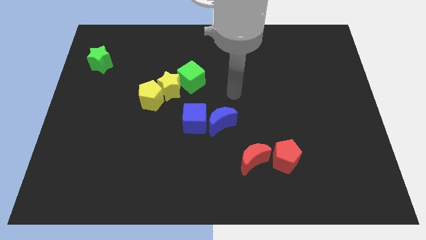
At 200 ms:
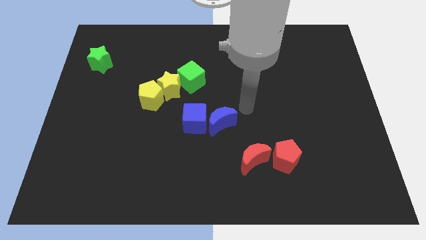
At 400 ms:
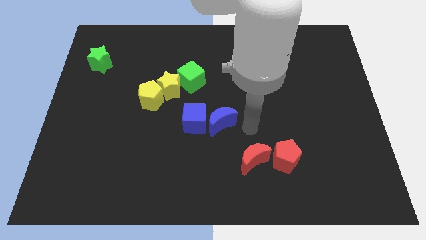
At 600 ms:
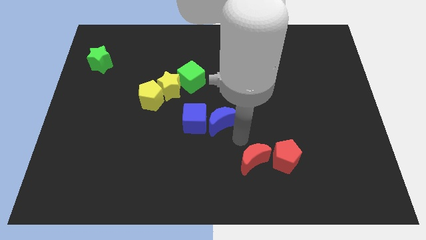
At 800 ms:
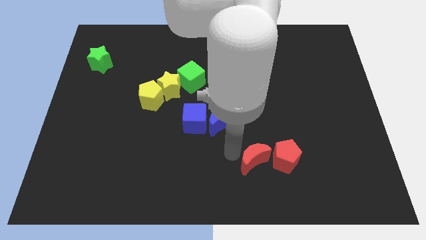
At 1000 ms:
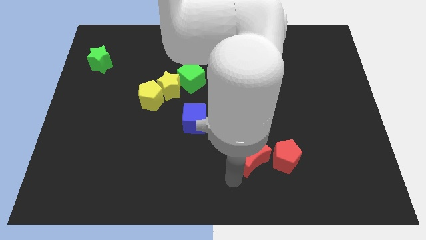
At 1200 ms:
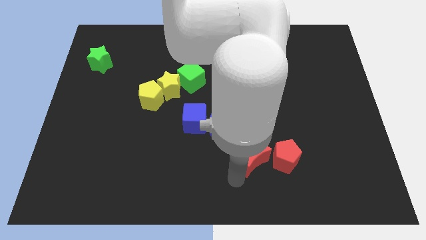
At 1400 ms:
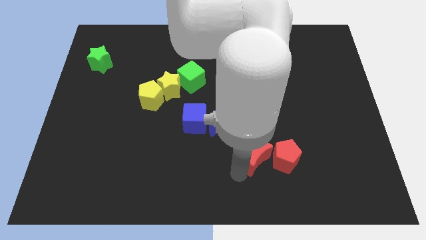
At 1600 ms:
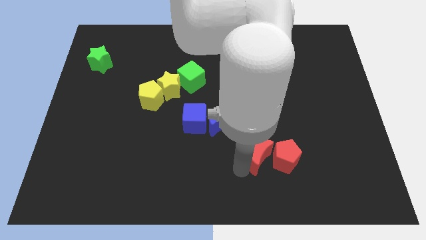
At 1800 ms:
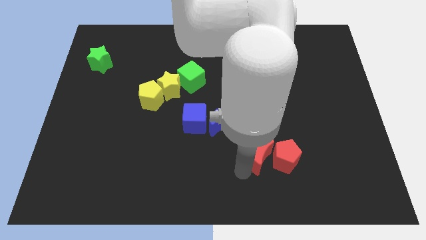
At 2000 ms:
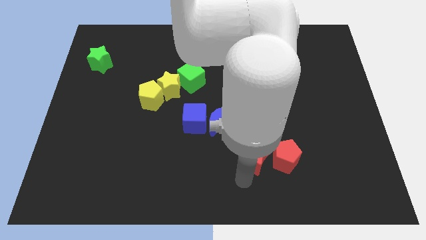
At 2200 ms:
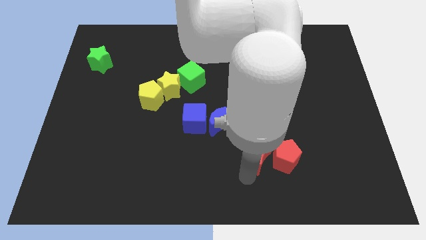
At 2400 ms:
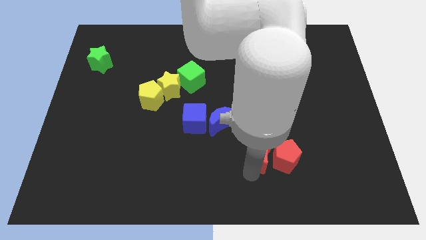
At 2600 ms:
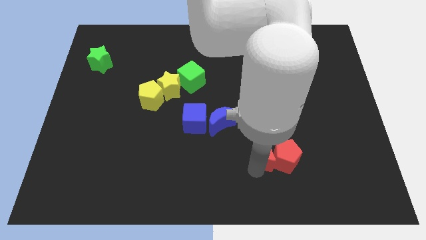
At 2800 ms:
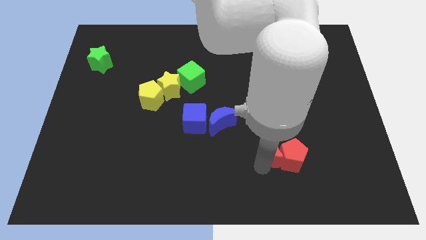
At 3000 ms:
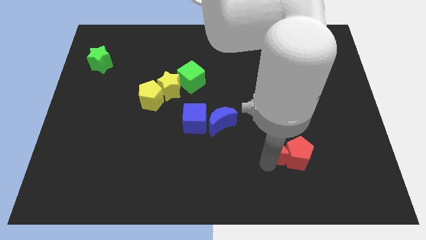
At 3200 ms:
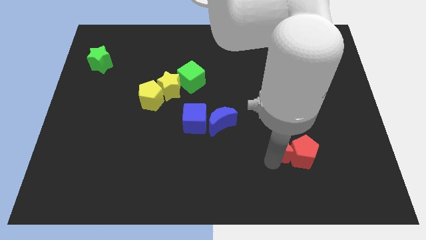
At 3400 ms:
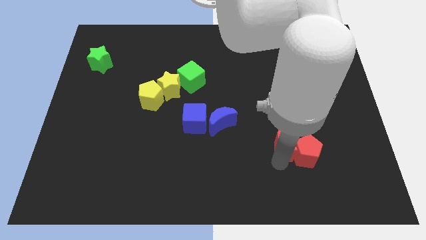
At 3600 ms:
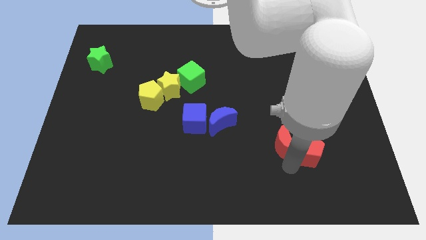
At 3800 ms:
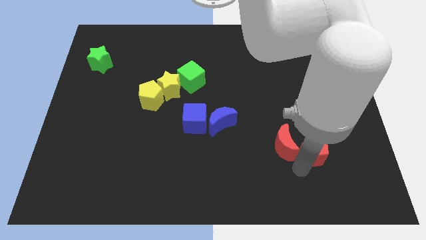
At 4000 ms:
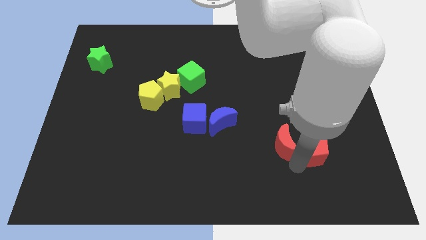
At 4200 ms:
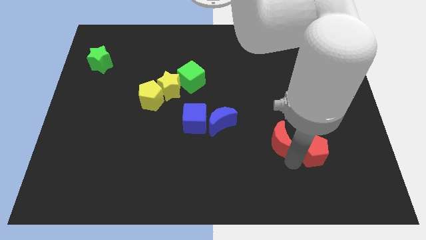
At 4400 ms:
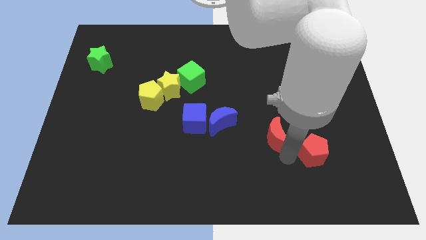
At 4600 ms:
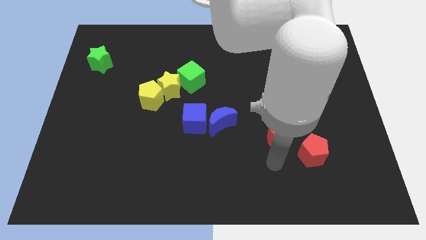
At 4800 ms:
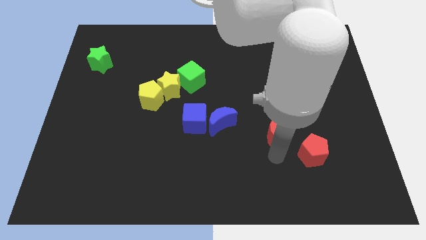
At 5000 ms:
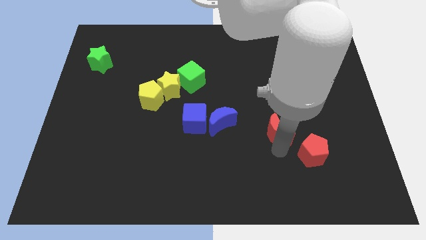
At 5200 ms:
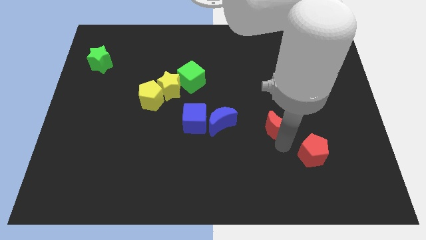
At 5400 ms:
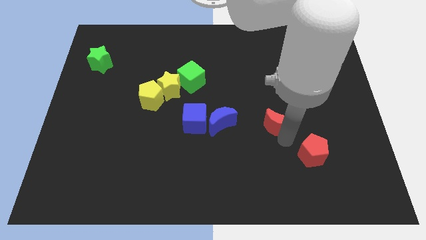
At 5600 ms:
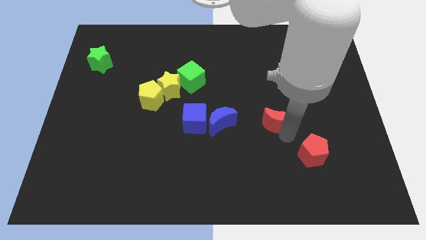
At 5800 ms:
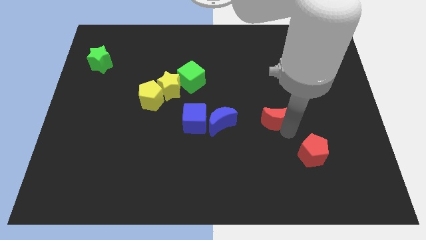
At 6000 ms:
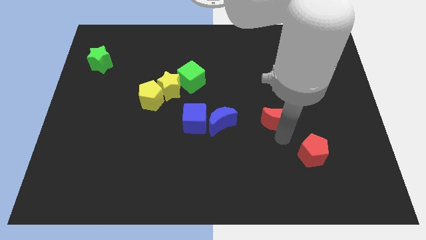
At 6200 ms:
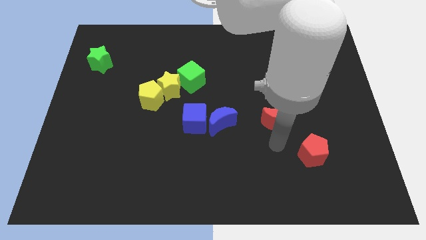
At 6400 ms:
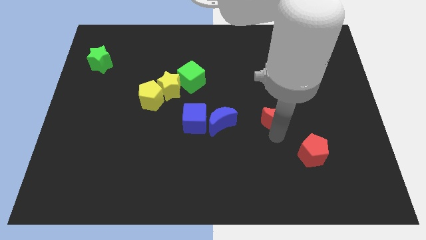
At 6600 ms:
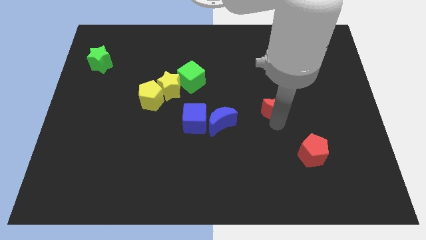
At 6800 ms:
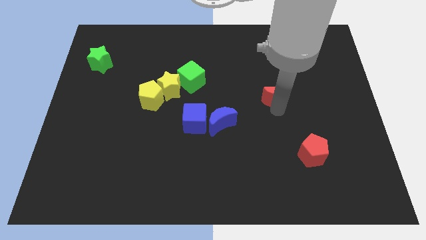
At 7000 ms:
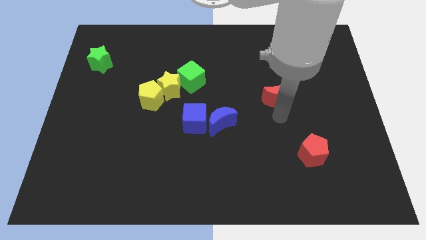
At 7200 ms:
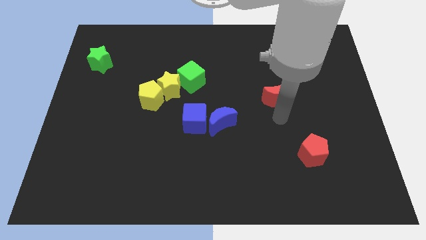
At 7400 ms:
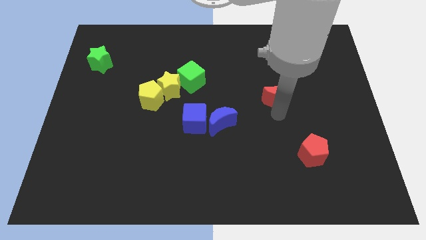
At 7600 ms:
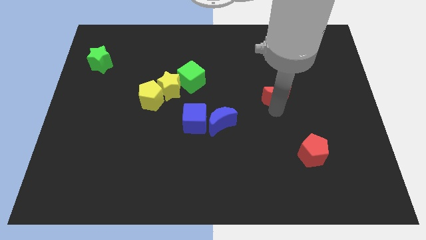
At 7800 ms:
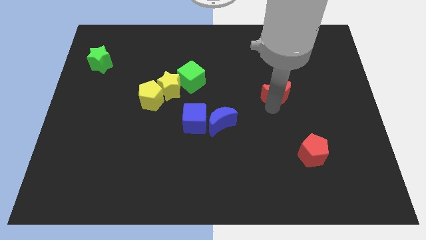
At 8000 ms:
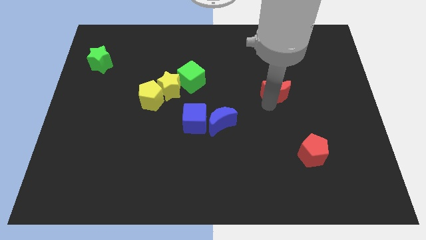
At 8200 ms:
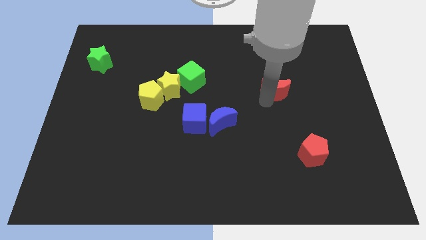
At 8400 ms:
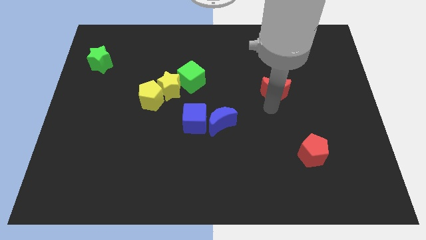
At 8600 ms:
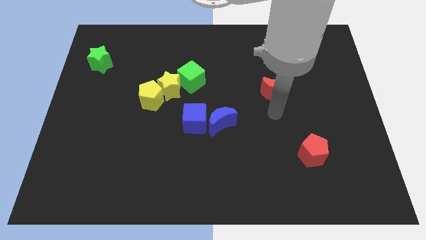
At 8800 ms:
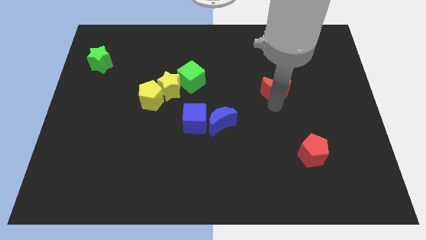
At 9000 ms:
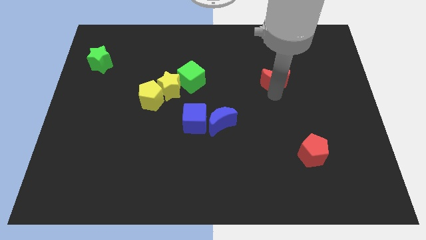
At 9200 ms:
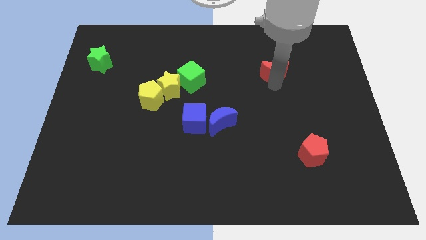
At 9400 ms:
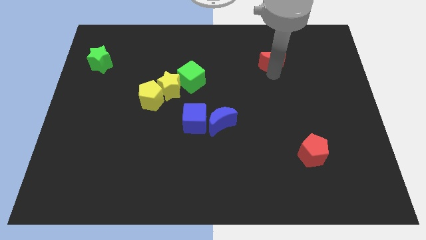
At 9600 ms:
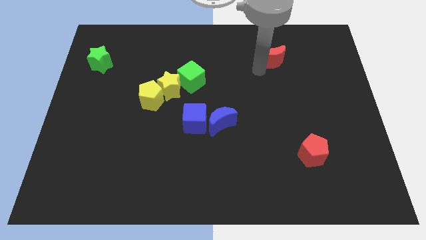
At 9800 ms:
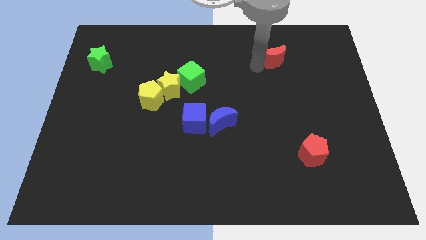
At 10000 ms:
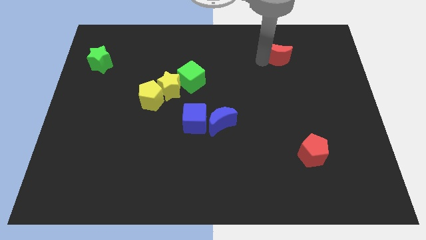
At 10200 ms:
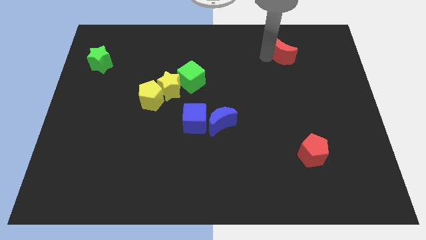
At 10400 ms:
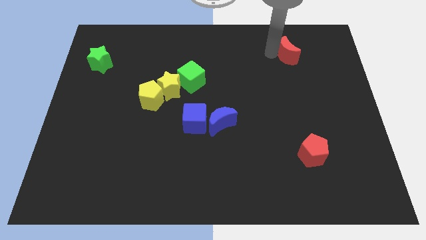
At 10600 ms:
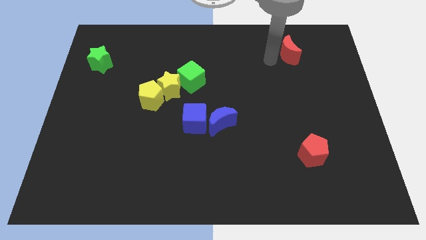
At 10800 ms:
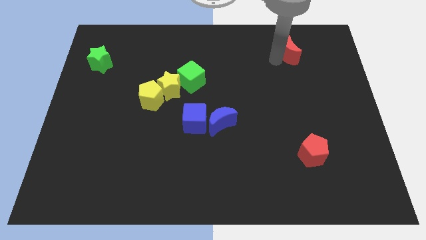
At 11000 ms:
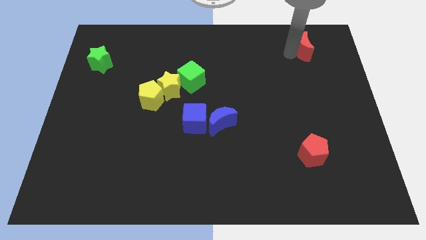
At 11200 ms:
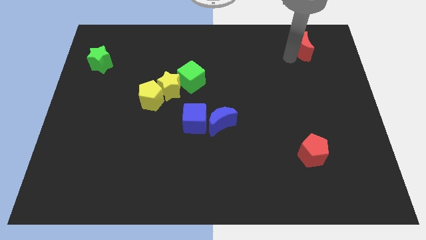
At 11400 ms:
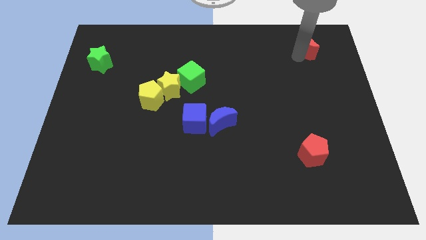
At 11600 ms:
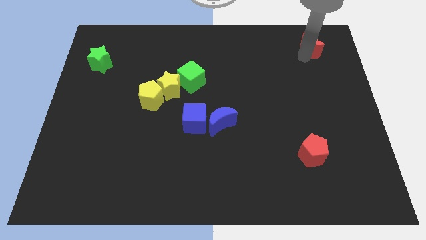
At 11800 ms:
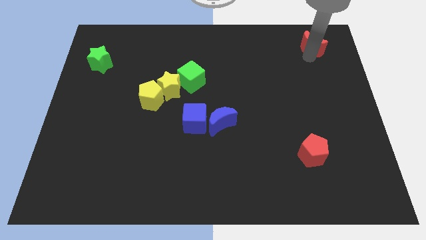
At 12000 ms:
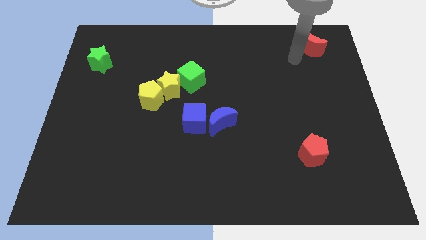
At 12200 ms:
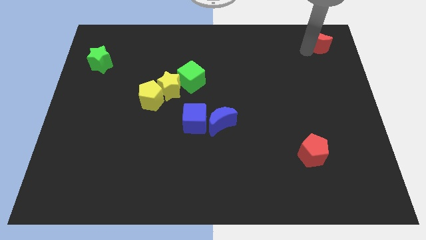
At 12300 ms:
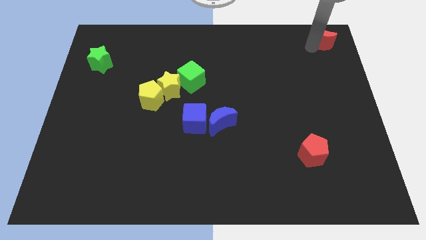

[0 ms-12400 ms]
slide the red moon to the top right corner
